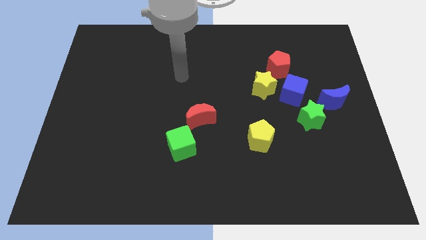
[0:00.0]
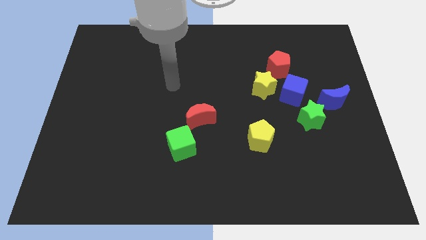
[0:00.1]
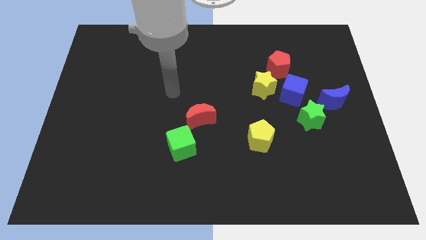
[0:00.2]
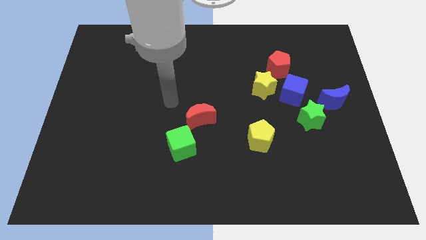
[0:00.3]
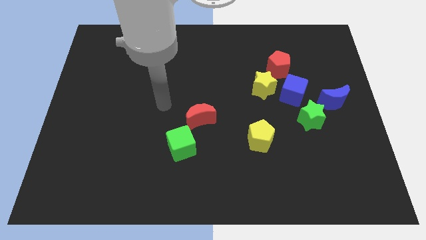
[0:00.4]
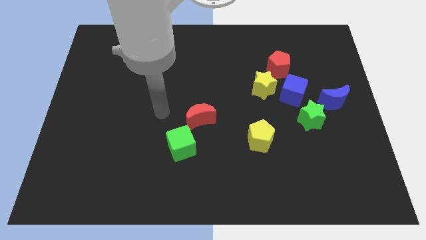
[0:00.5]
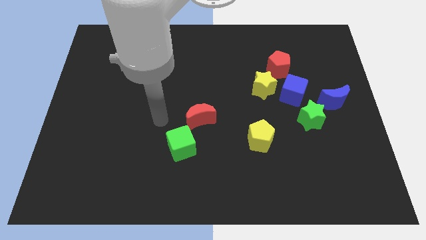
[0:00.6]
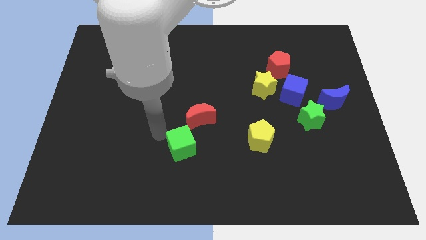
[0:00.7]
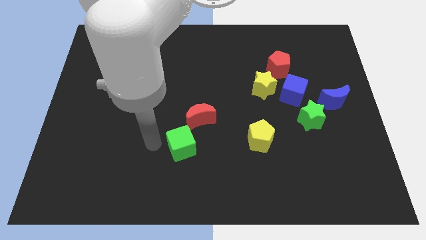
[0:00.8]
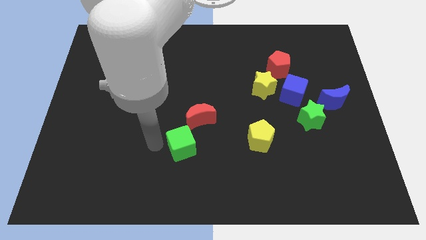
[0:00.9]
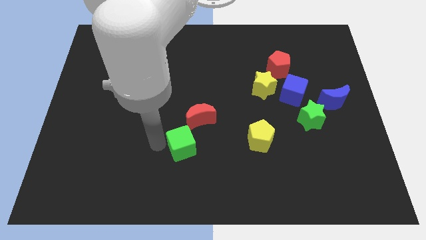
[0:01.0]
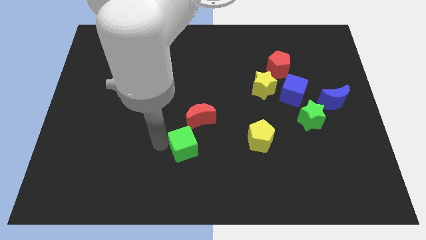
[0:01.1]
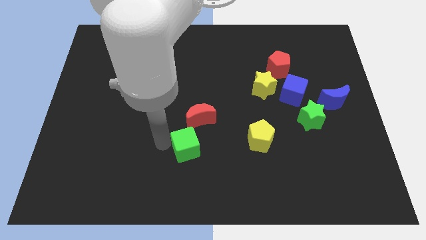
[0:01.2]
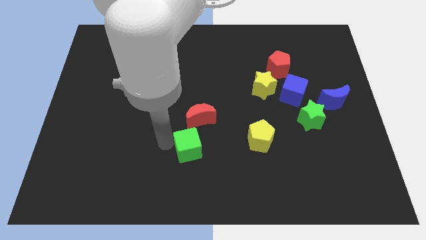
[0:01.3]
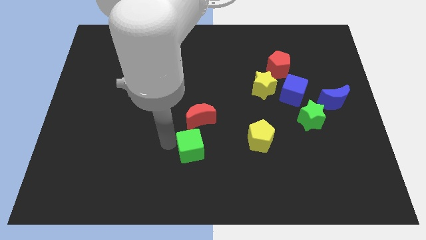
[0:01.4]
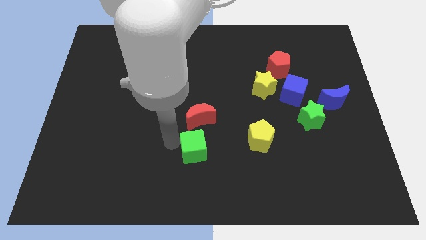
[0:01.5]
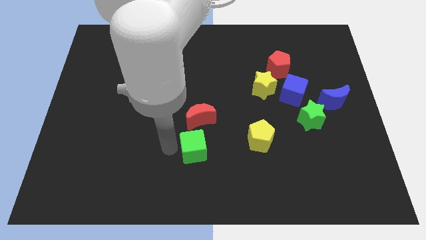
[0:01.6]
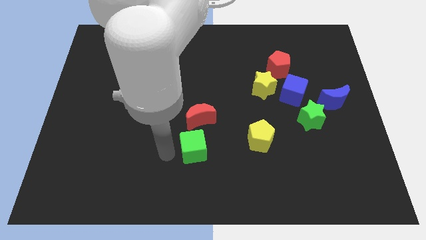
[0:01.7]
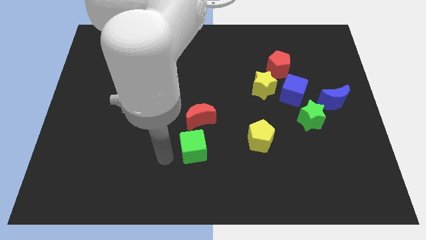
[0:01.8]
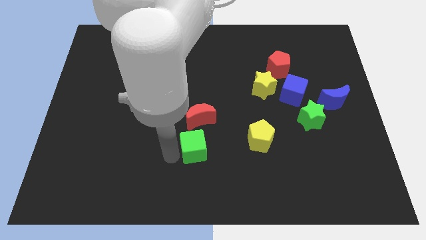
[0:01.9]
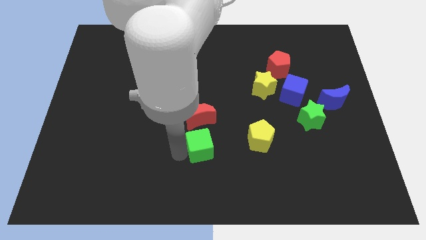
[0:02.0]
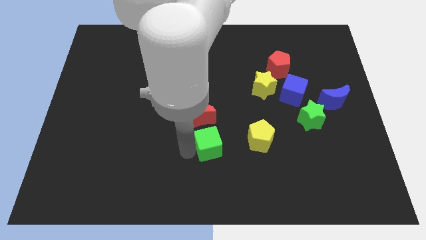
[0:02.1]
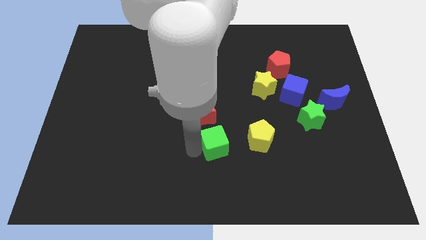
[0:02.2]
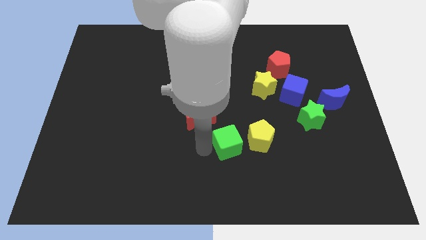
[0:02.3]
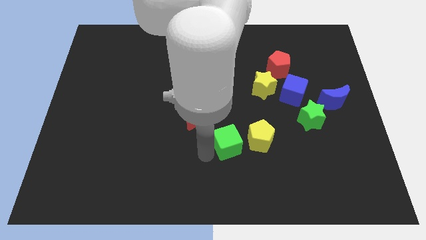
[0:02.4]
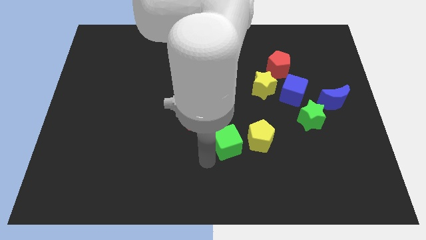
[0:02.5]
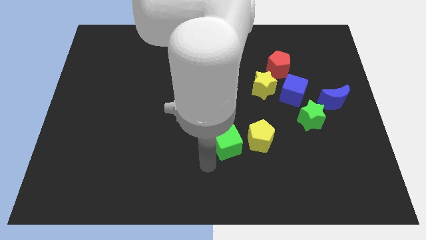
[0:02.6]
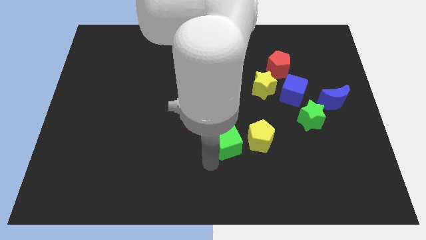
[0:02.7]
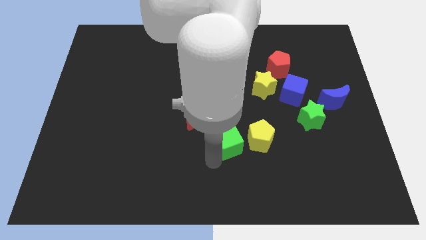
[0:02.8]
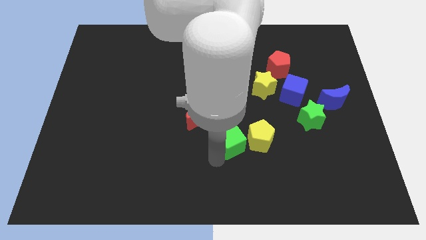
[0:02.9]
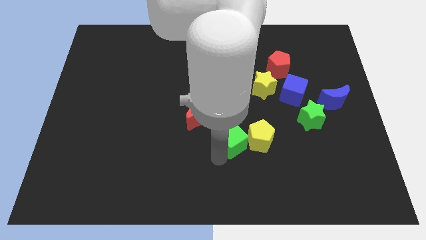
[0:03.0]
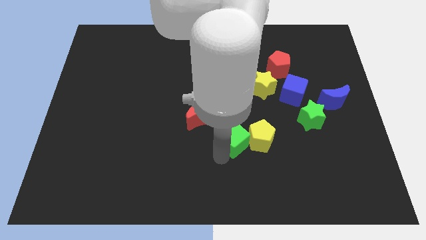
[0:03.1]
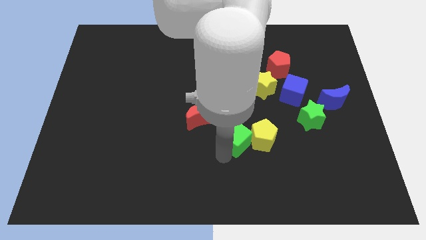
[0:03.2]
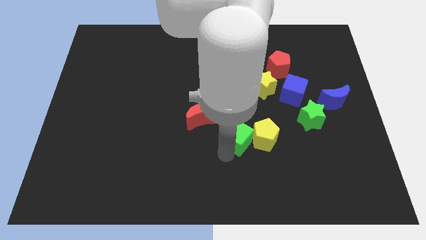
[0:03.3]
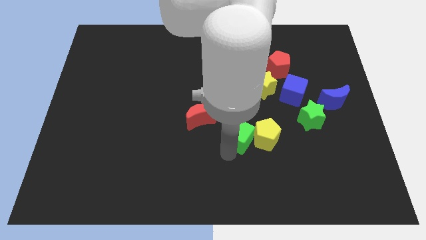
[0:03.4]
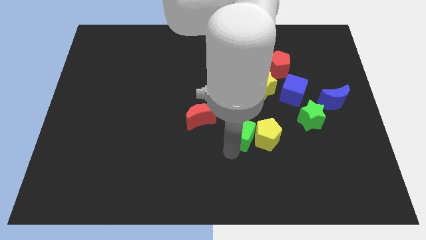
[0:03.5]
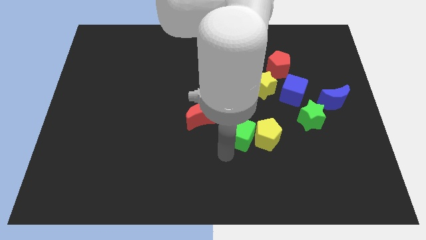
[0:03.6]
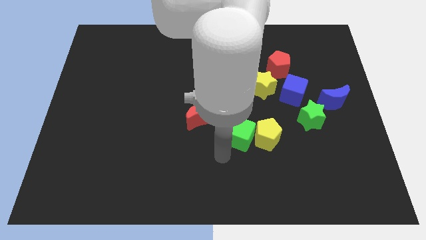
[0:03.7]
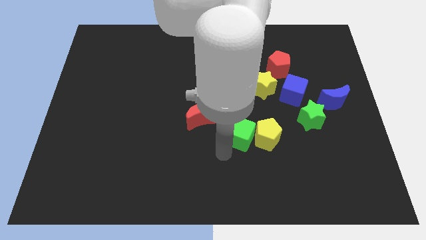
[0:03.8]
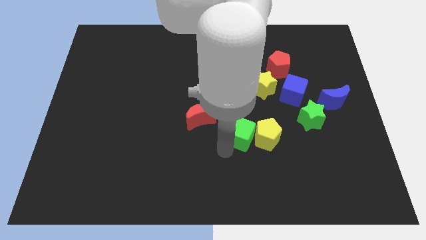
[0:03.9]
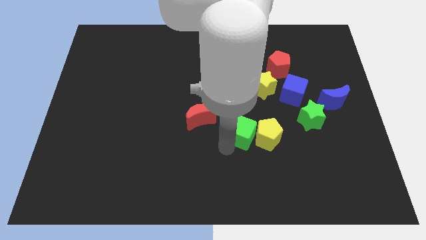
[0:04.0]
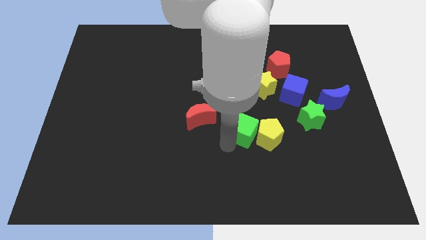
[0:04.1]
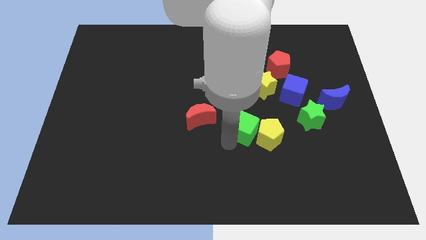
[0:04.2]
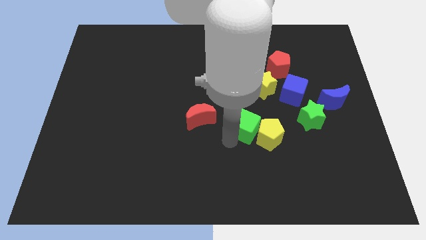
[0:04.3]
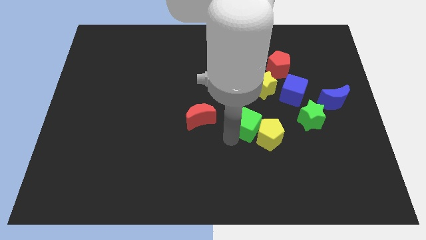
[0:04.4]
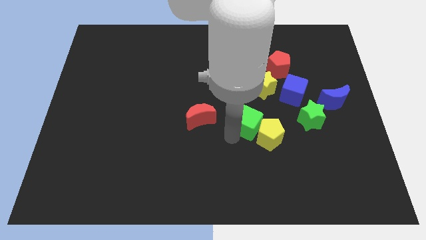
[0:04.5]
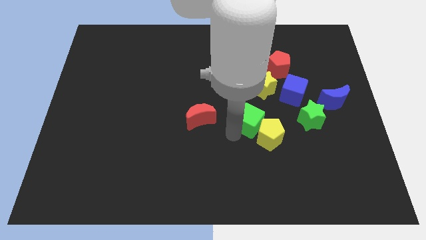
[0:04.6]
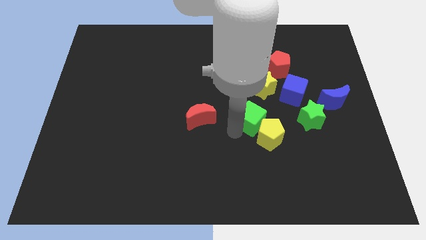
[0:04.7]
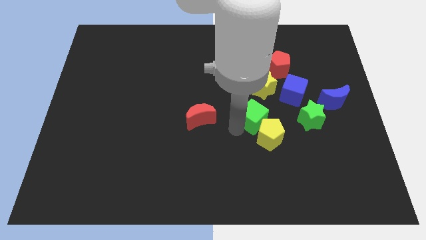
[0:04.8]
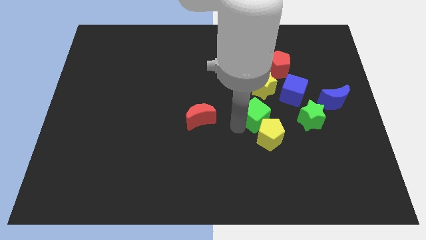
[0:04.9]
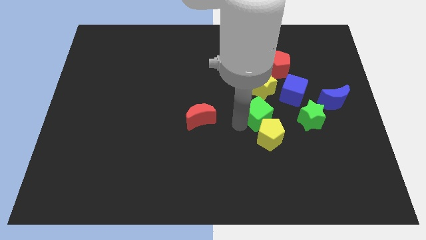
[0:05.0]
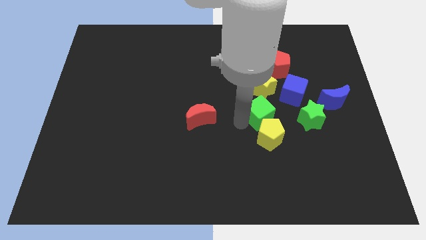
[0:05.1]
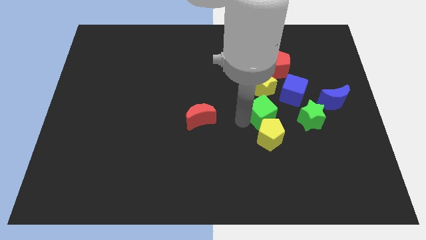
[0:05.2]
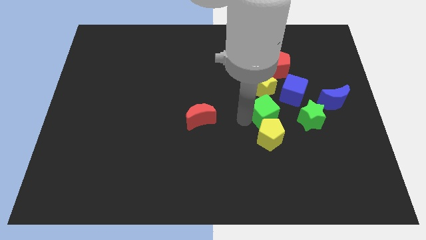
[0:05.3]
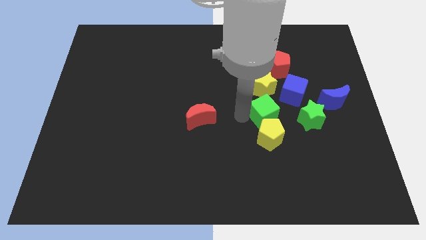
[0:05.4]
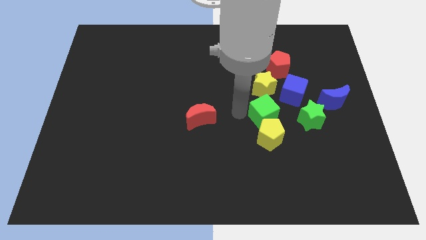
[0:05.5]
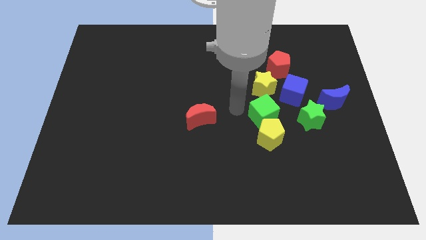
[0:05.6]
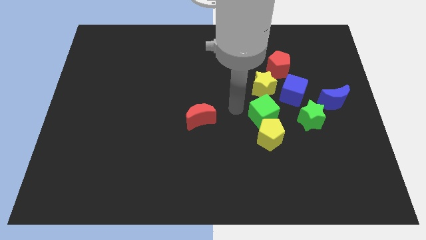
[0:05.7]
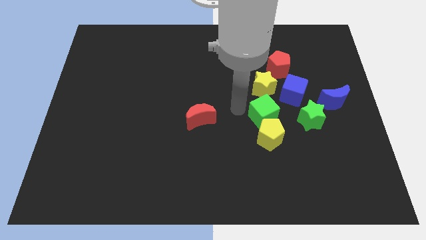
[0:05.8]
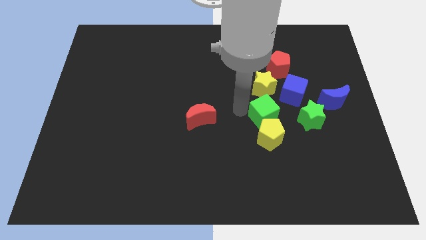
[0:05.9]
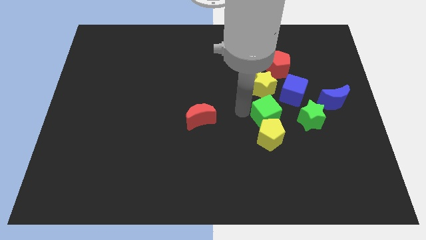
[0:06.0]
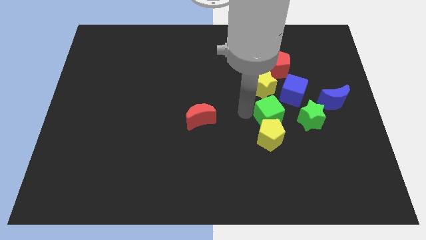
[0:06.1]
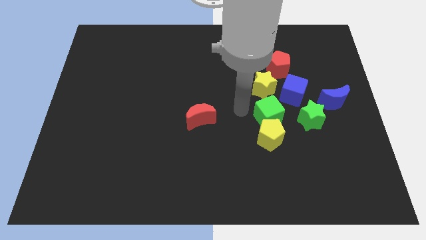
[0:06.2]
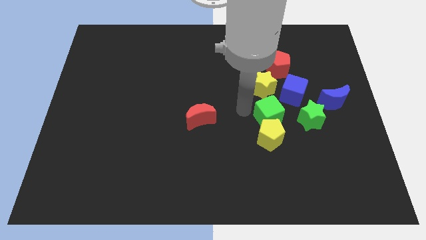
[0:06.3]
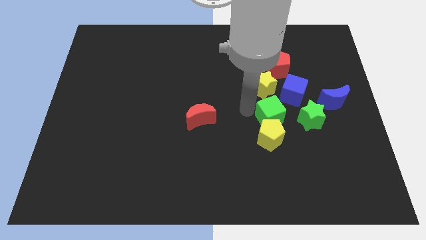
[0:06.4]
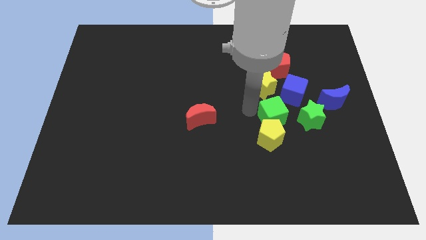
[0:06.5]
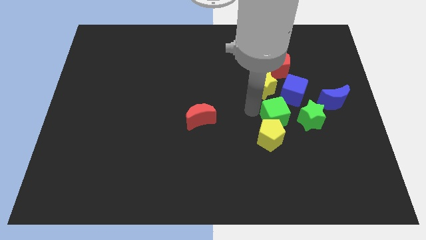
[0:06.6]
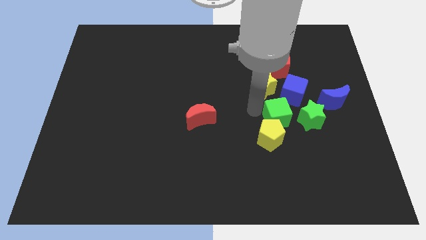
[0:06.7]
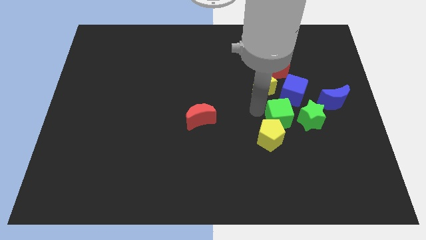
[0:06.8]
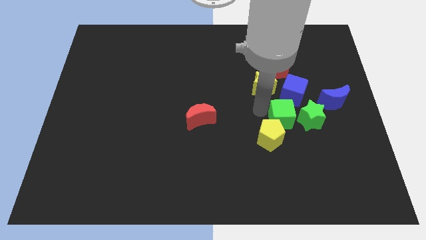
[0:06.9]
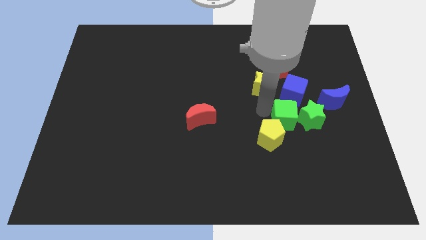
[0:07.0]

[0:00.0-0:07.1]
push the green cube towards the green star
